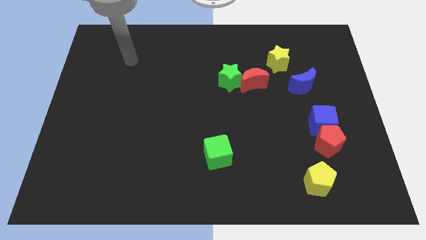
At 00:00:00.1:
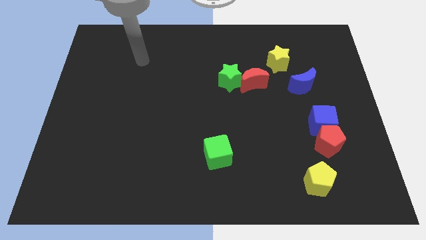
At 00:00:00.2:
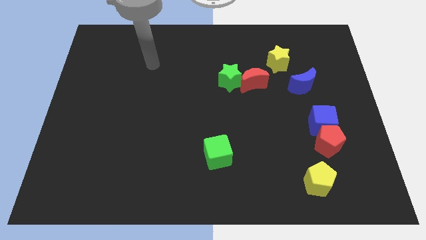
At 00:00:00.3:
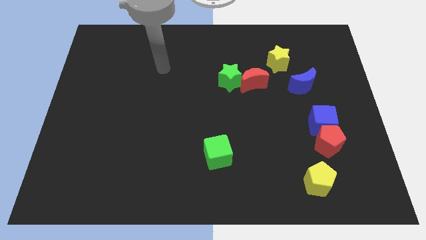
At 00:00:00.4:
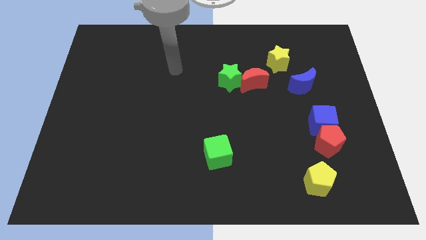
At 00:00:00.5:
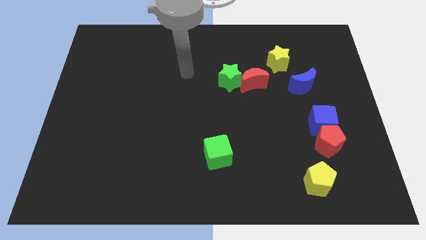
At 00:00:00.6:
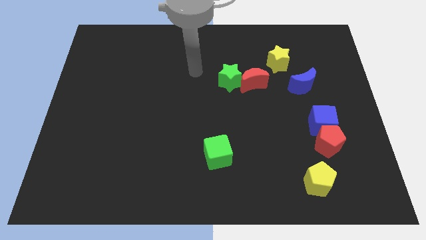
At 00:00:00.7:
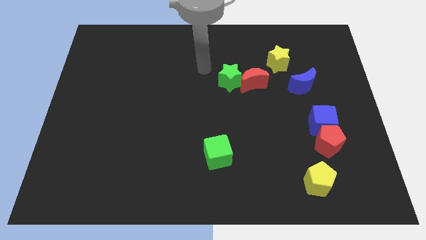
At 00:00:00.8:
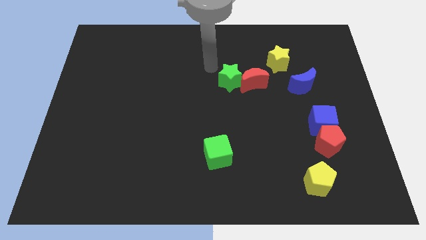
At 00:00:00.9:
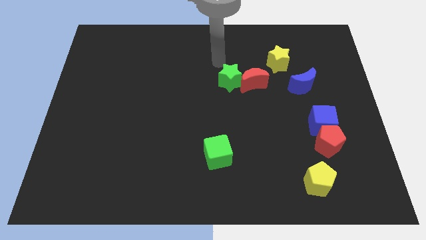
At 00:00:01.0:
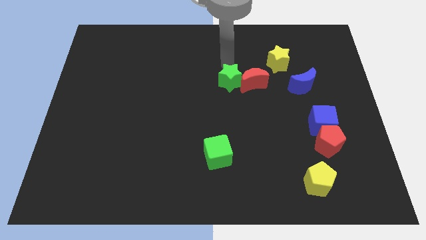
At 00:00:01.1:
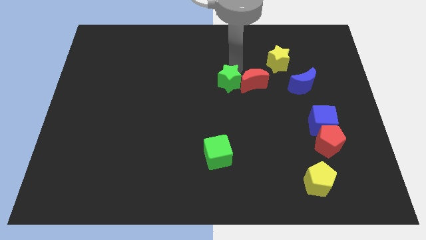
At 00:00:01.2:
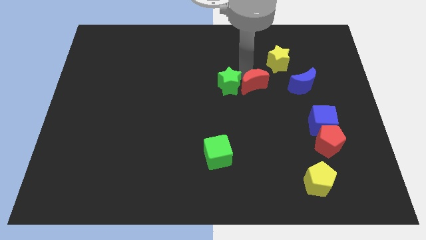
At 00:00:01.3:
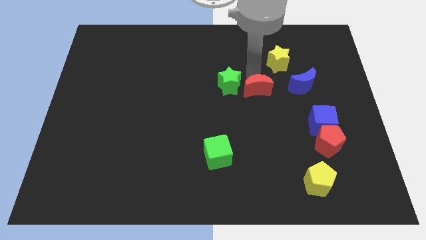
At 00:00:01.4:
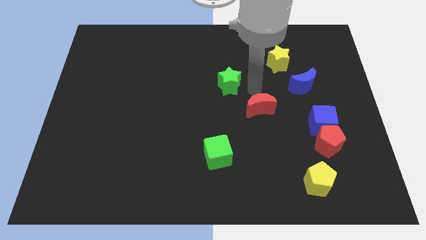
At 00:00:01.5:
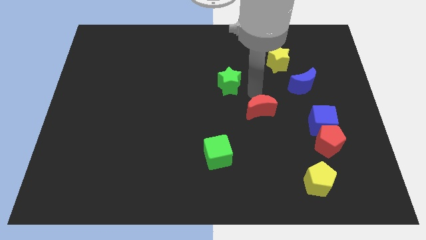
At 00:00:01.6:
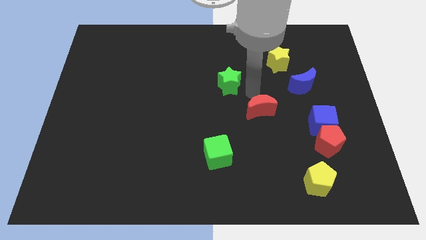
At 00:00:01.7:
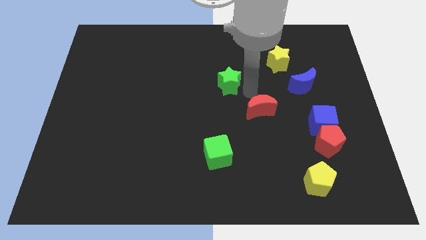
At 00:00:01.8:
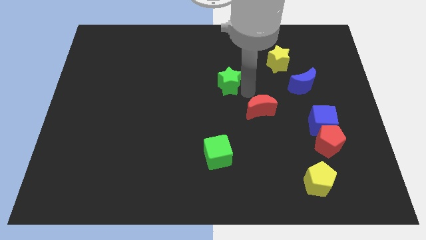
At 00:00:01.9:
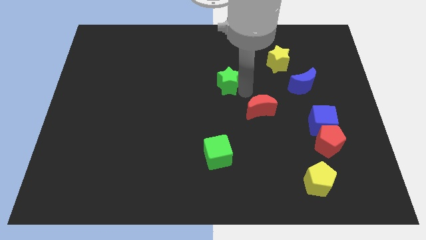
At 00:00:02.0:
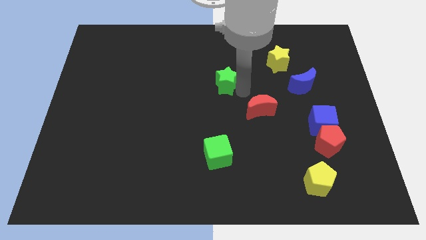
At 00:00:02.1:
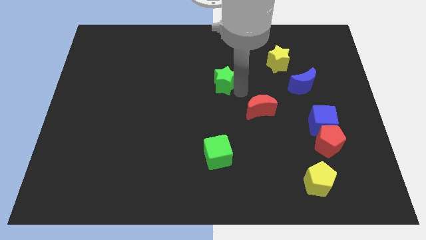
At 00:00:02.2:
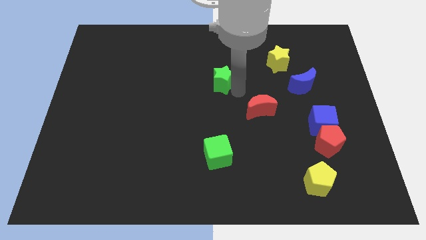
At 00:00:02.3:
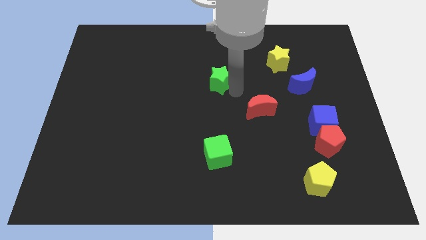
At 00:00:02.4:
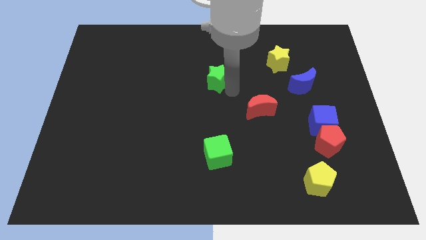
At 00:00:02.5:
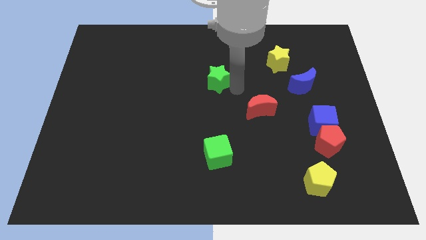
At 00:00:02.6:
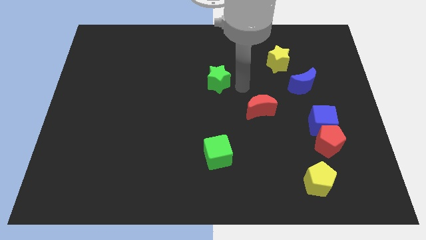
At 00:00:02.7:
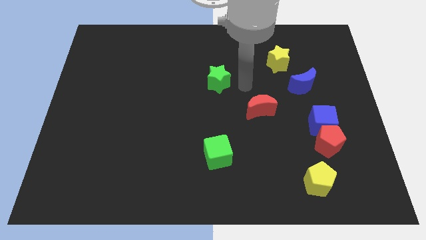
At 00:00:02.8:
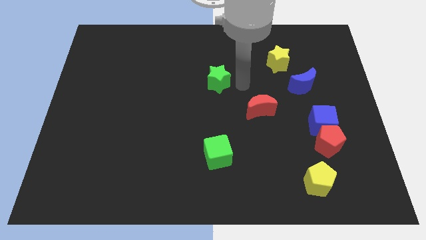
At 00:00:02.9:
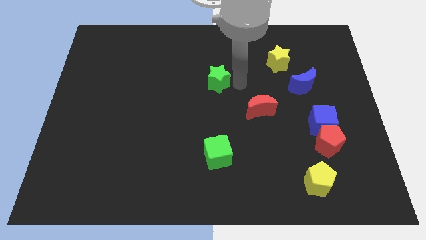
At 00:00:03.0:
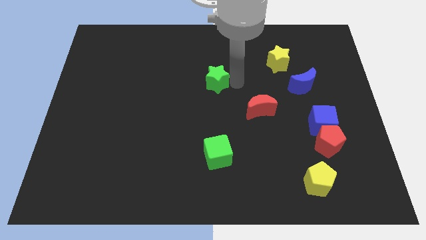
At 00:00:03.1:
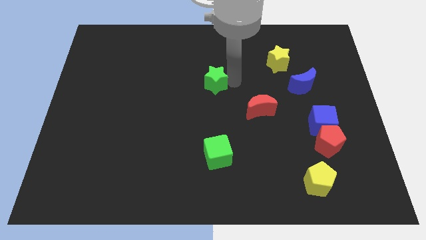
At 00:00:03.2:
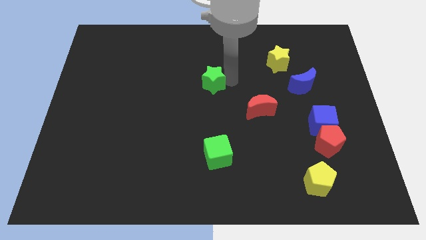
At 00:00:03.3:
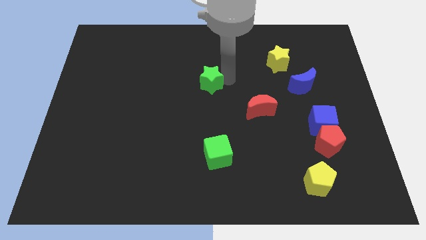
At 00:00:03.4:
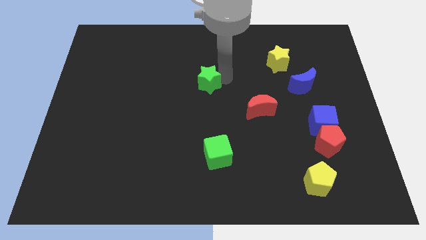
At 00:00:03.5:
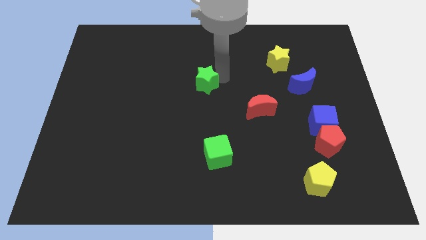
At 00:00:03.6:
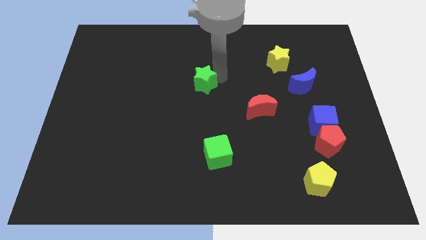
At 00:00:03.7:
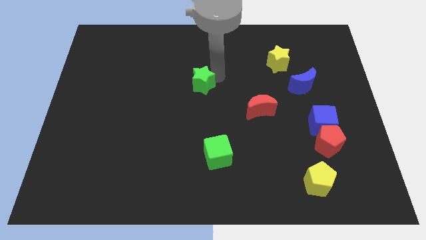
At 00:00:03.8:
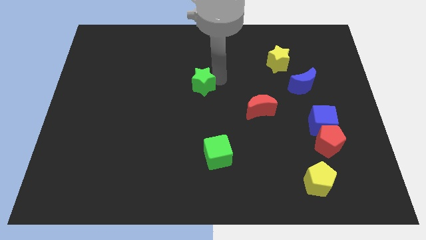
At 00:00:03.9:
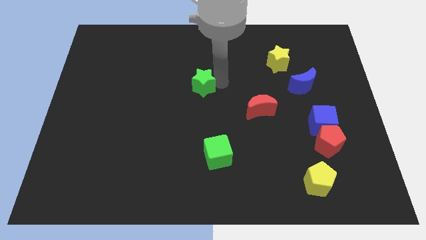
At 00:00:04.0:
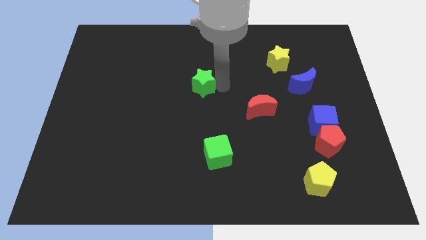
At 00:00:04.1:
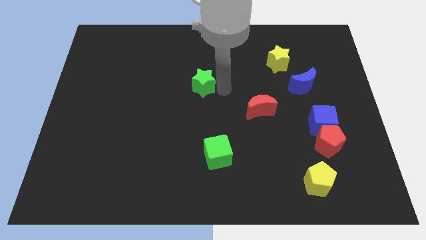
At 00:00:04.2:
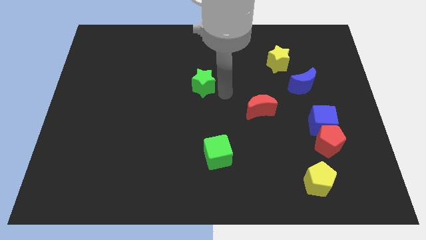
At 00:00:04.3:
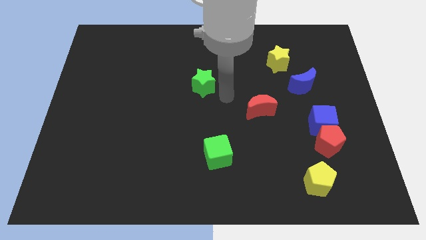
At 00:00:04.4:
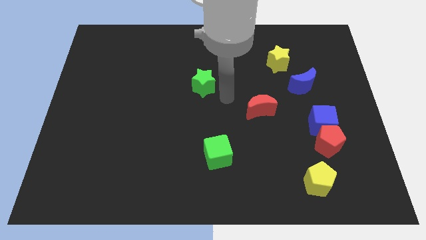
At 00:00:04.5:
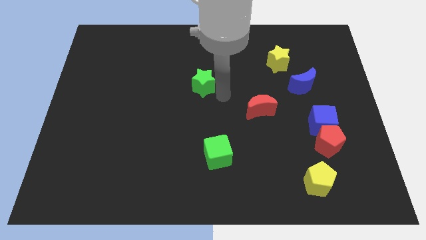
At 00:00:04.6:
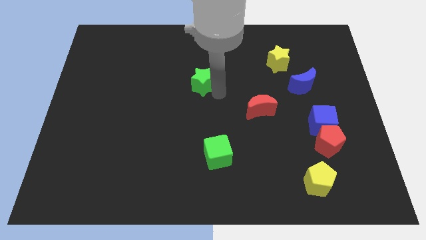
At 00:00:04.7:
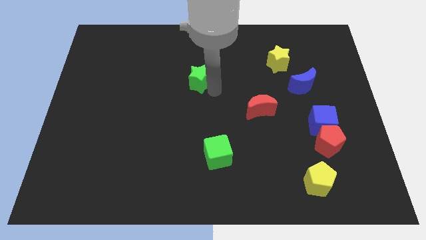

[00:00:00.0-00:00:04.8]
push the green star to the left a little bit

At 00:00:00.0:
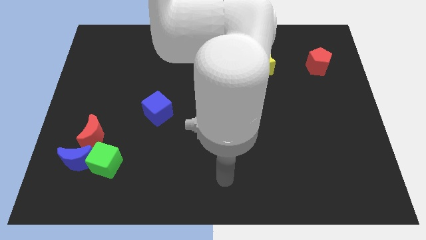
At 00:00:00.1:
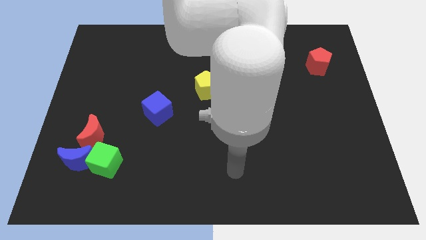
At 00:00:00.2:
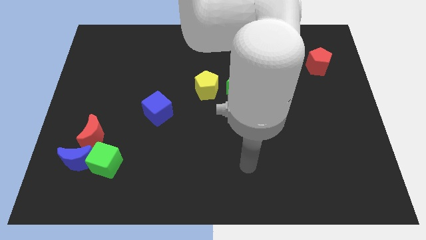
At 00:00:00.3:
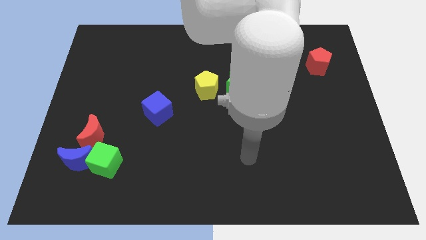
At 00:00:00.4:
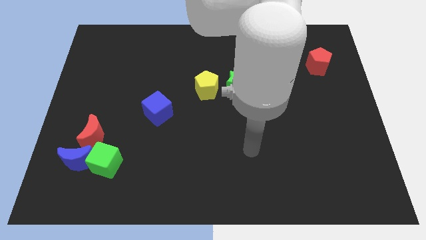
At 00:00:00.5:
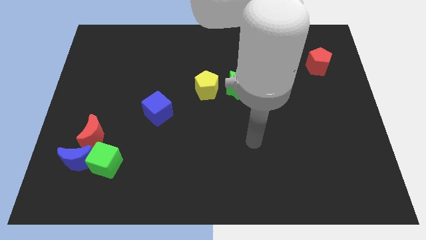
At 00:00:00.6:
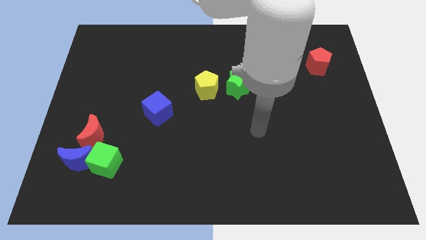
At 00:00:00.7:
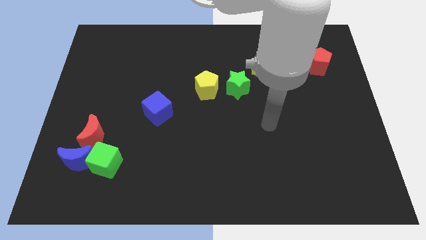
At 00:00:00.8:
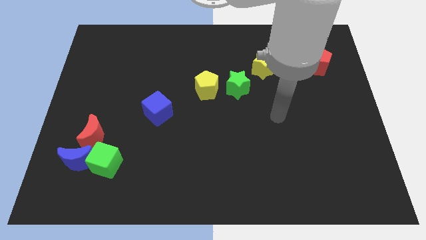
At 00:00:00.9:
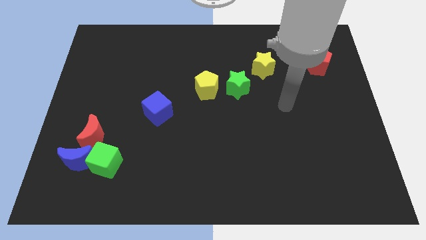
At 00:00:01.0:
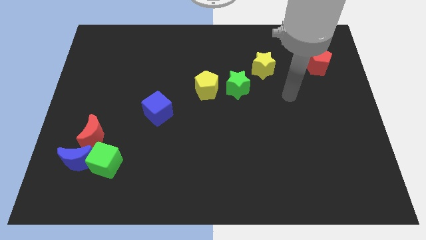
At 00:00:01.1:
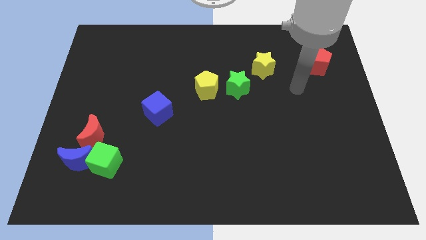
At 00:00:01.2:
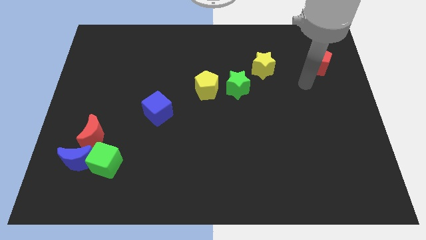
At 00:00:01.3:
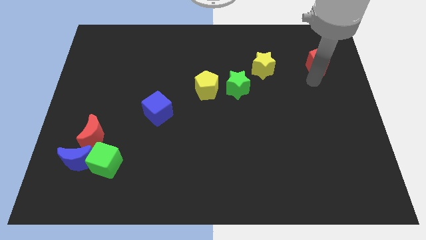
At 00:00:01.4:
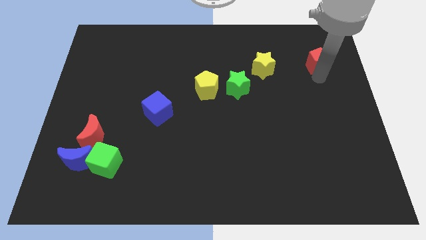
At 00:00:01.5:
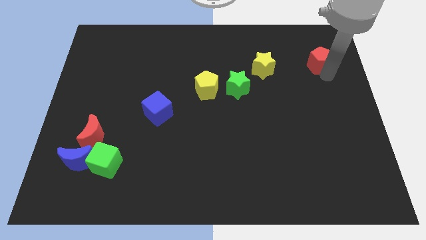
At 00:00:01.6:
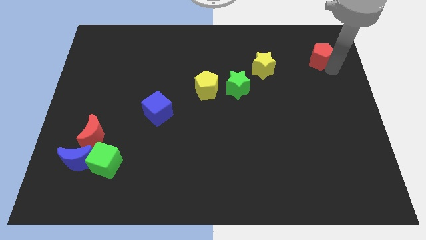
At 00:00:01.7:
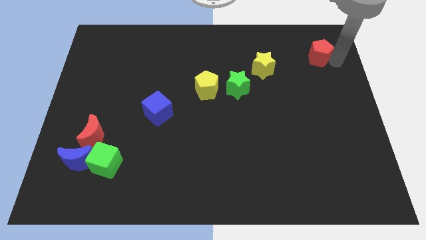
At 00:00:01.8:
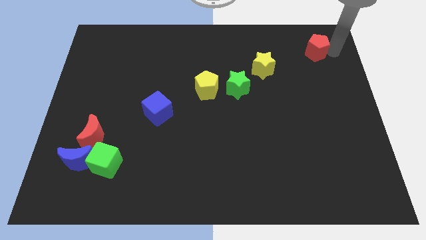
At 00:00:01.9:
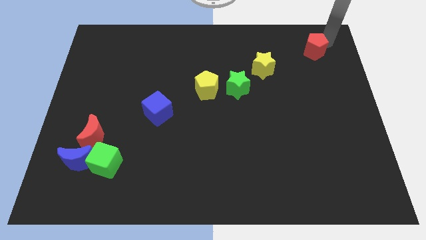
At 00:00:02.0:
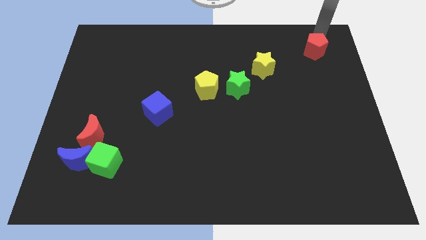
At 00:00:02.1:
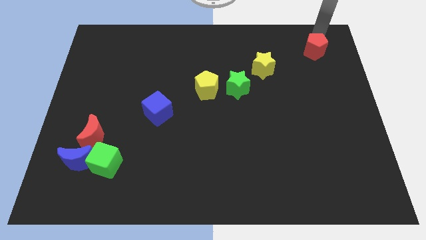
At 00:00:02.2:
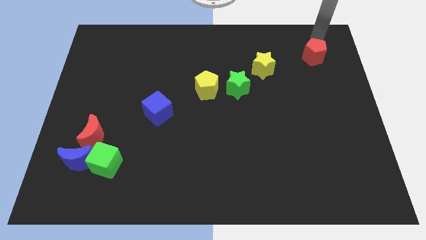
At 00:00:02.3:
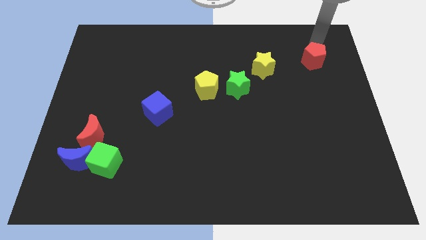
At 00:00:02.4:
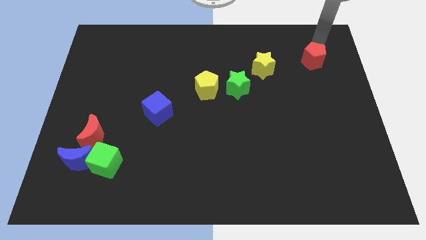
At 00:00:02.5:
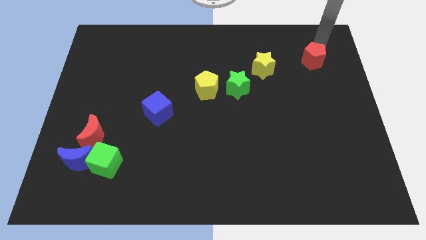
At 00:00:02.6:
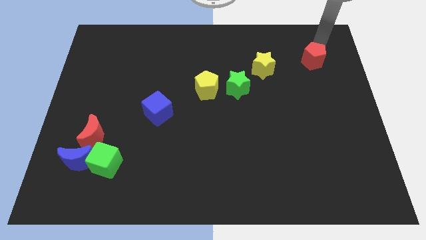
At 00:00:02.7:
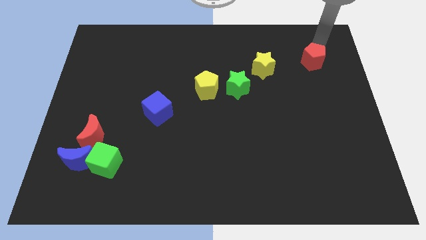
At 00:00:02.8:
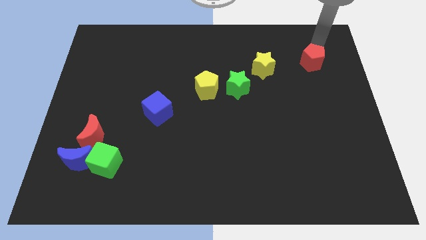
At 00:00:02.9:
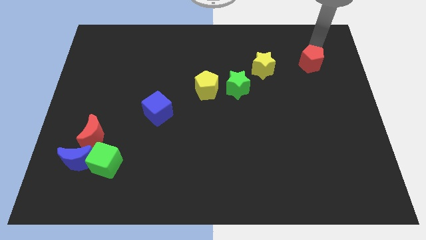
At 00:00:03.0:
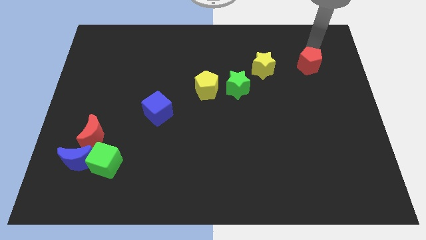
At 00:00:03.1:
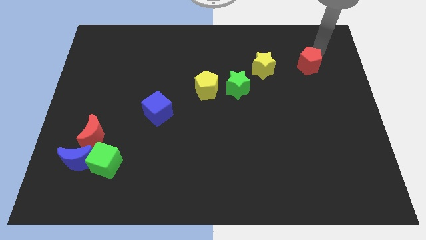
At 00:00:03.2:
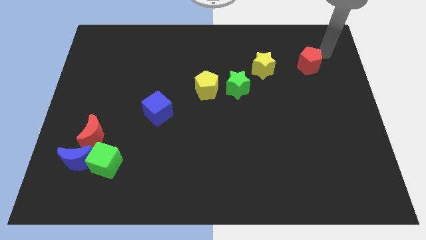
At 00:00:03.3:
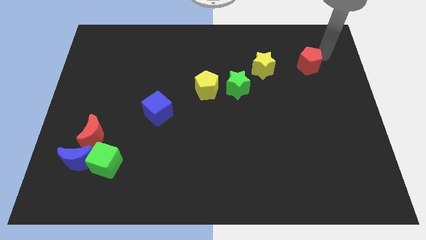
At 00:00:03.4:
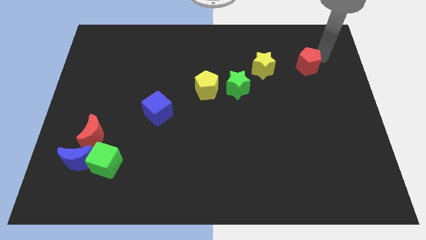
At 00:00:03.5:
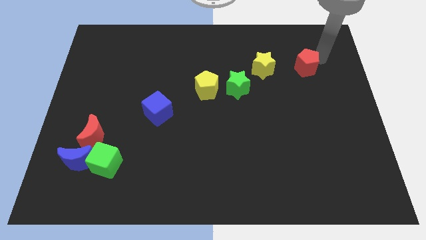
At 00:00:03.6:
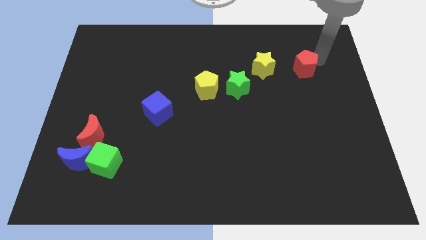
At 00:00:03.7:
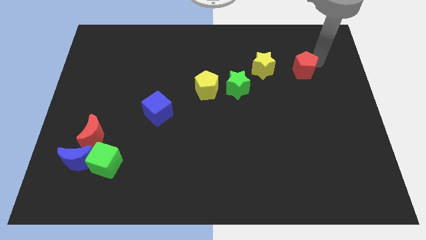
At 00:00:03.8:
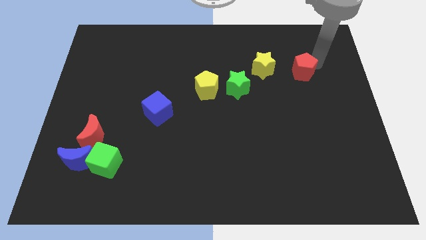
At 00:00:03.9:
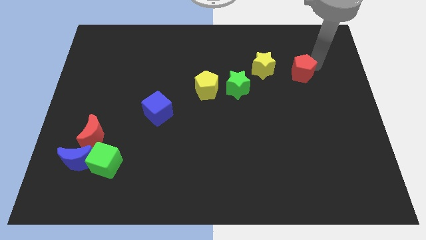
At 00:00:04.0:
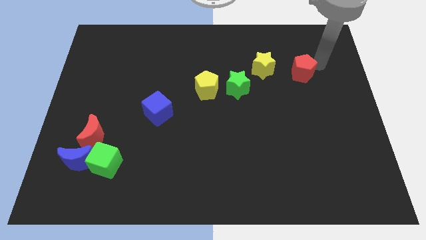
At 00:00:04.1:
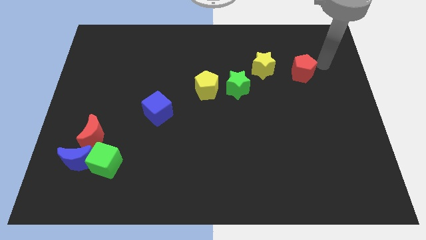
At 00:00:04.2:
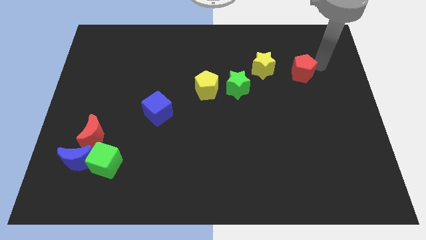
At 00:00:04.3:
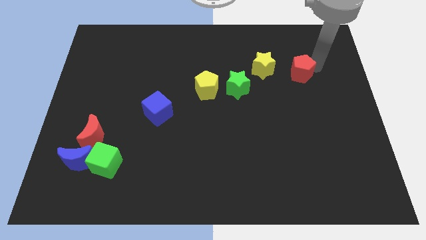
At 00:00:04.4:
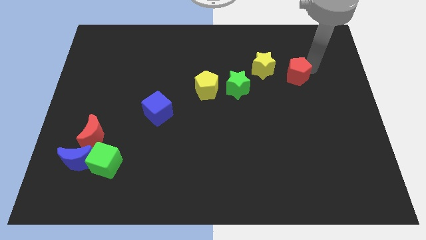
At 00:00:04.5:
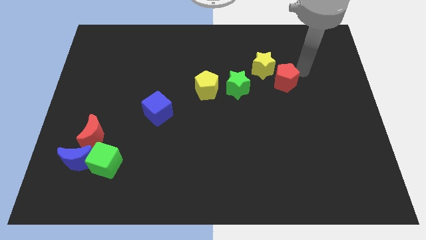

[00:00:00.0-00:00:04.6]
slightly slide the red pentagon left
